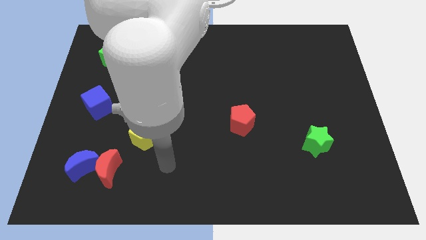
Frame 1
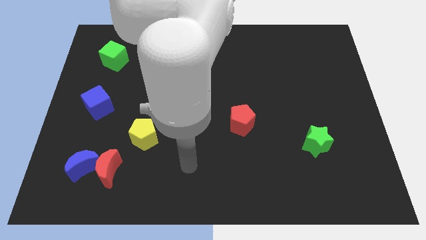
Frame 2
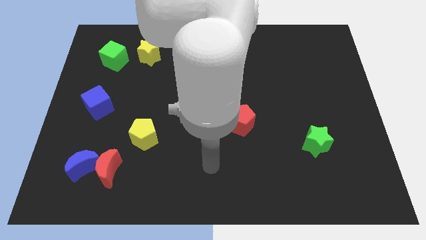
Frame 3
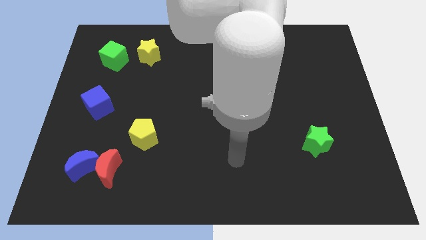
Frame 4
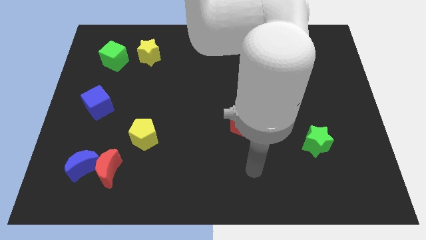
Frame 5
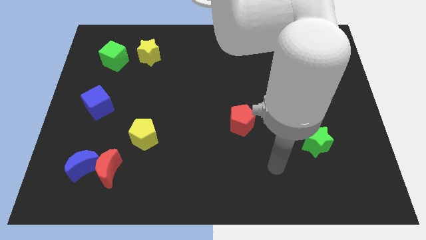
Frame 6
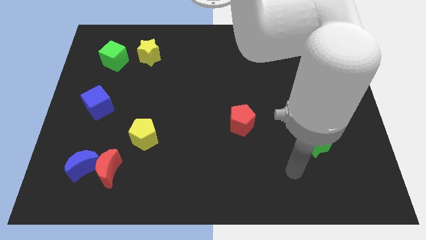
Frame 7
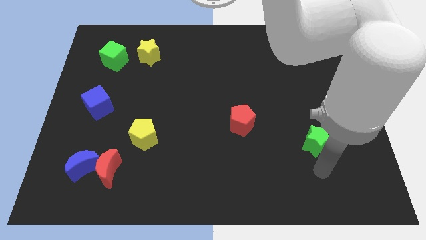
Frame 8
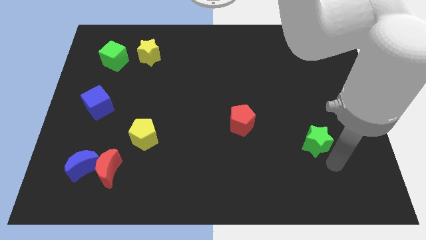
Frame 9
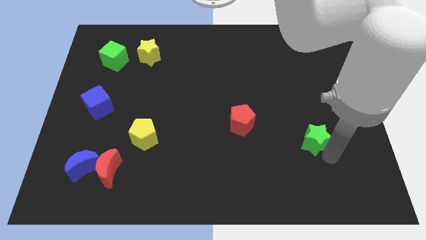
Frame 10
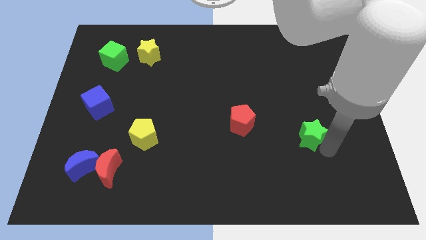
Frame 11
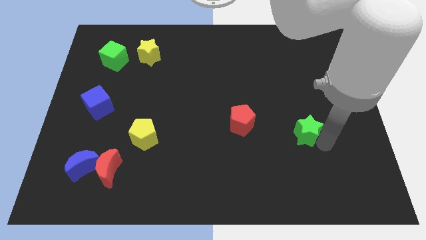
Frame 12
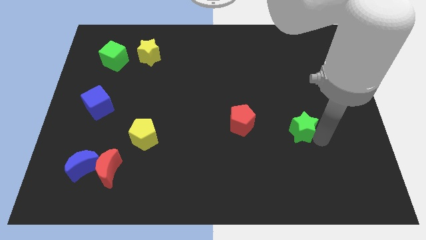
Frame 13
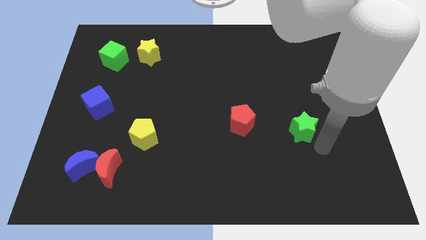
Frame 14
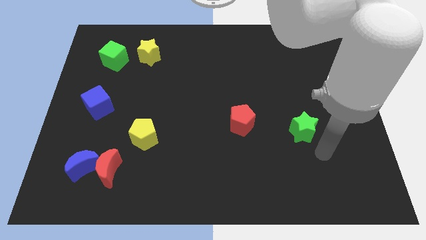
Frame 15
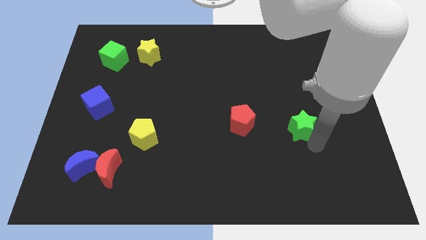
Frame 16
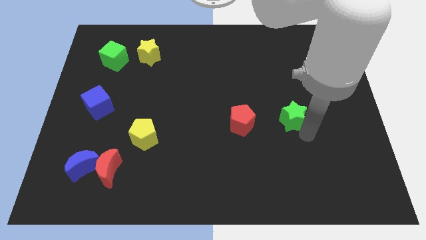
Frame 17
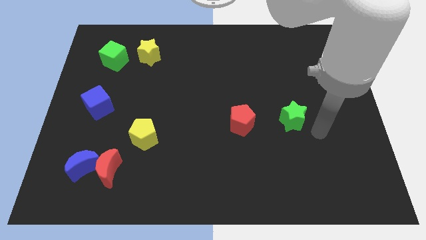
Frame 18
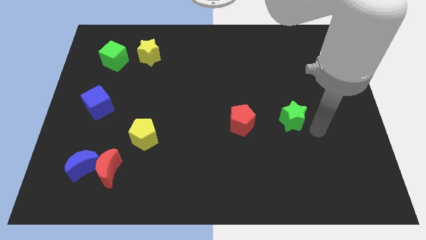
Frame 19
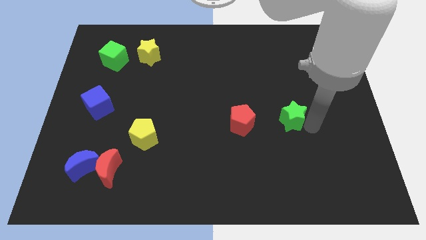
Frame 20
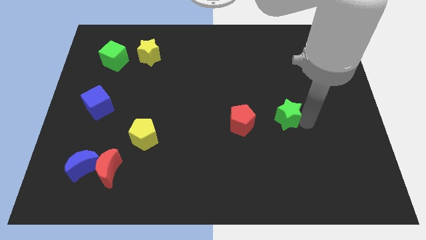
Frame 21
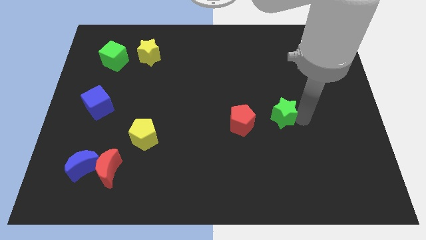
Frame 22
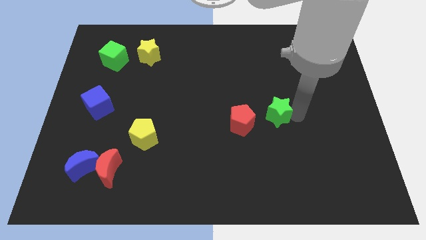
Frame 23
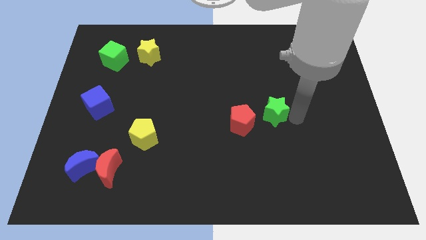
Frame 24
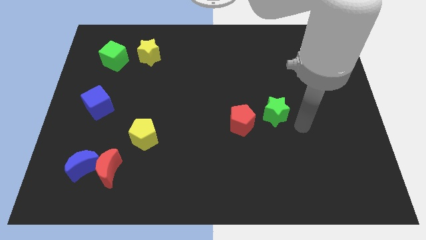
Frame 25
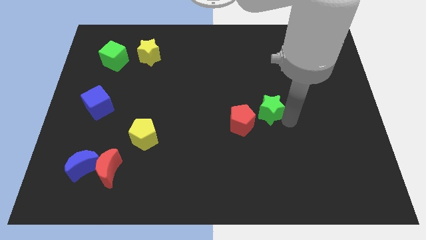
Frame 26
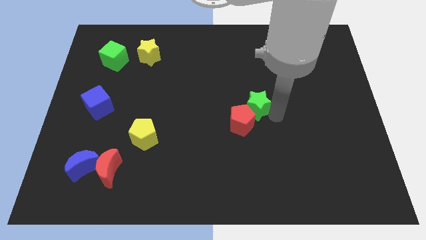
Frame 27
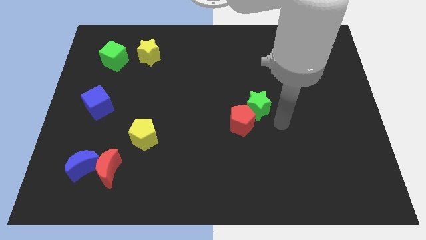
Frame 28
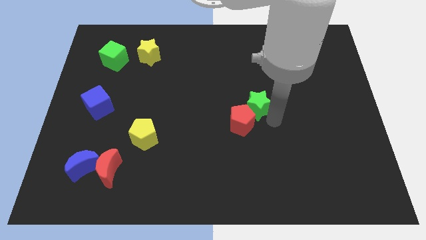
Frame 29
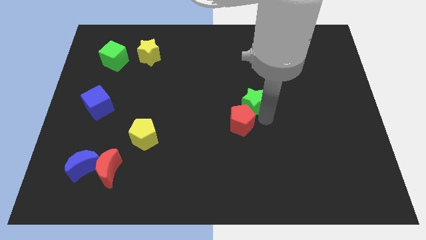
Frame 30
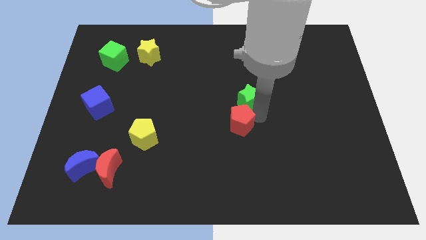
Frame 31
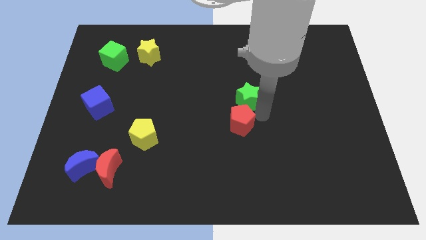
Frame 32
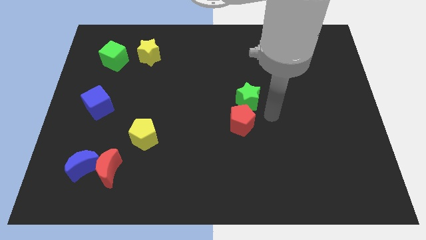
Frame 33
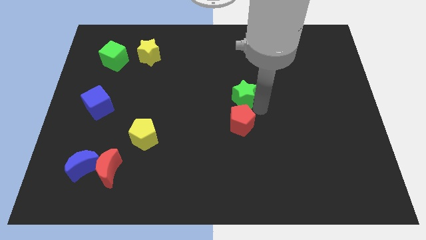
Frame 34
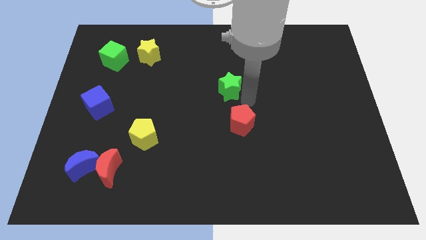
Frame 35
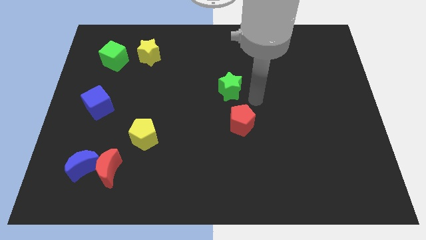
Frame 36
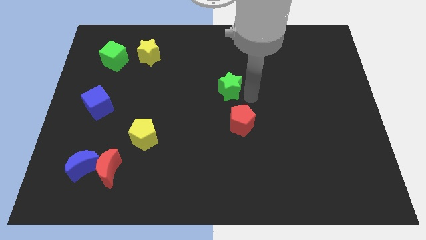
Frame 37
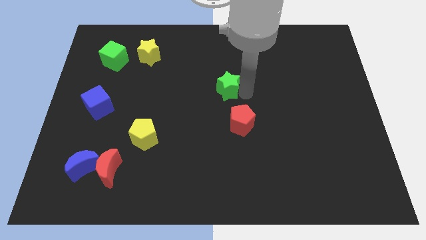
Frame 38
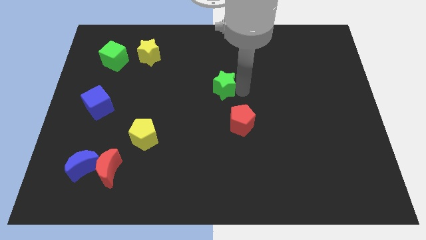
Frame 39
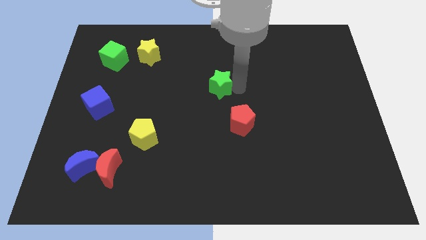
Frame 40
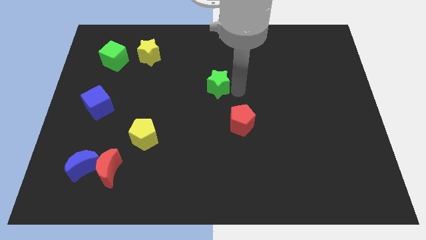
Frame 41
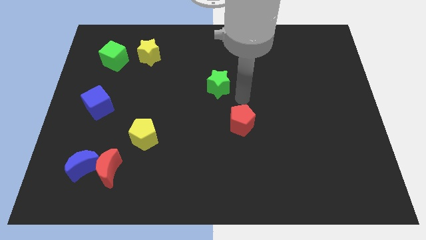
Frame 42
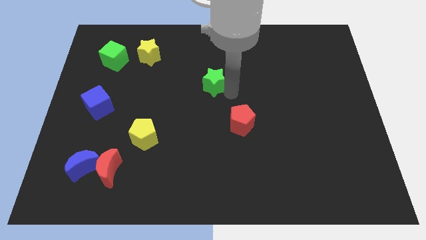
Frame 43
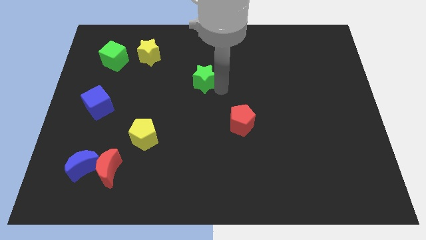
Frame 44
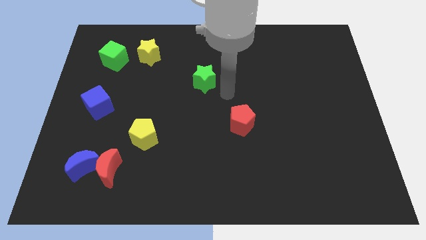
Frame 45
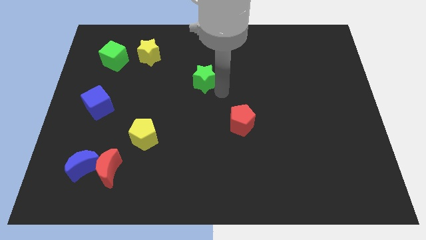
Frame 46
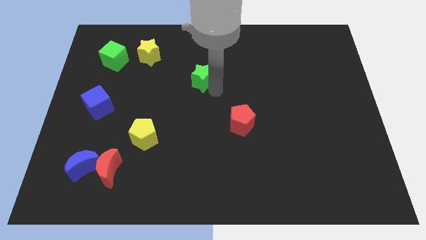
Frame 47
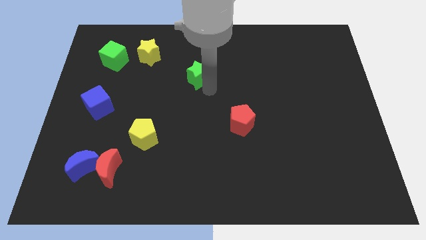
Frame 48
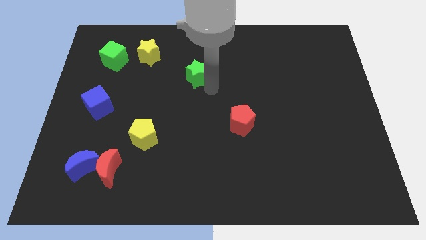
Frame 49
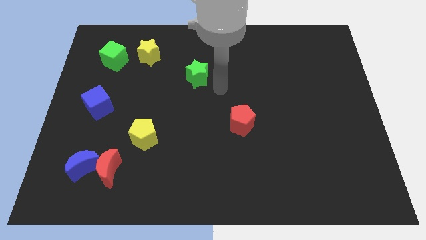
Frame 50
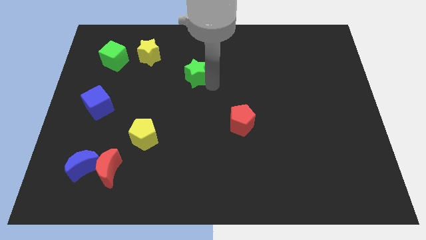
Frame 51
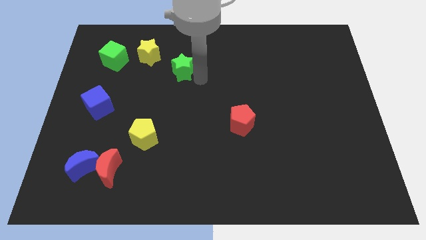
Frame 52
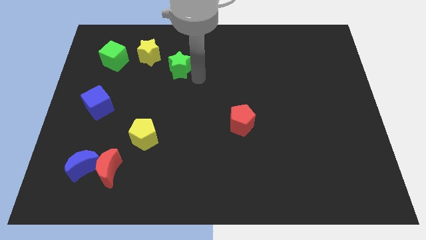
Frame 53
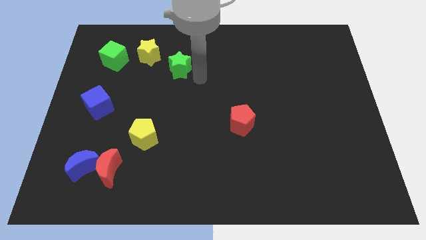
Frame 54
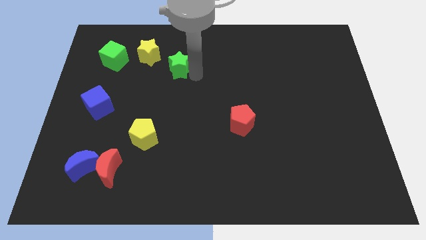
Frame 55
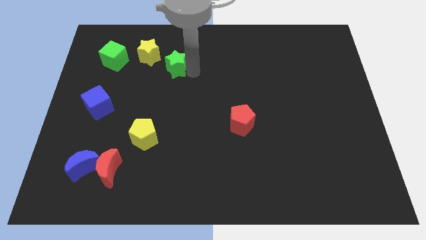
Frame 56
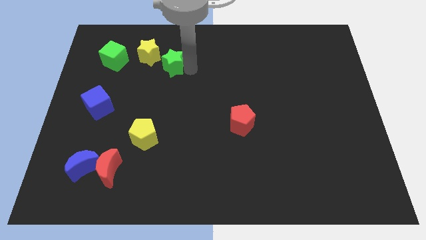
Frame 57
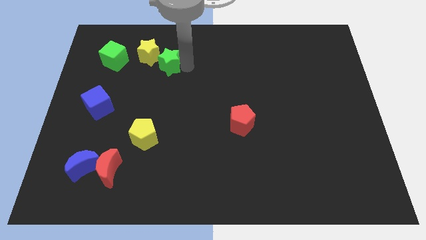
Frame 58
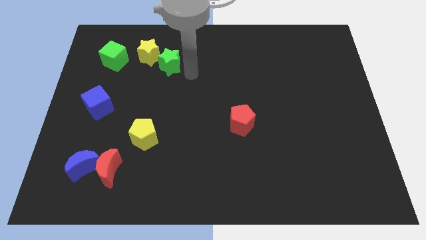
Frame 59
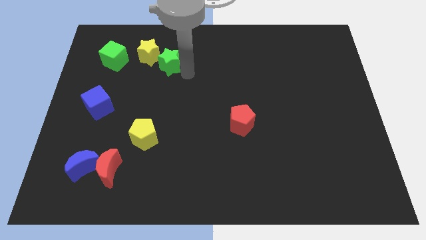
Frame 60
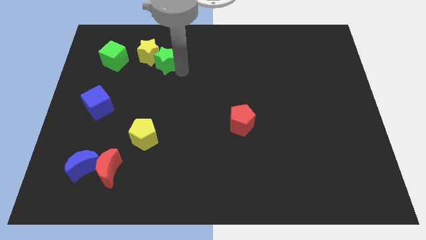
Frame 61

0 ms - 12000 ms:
move the green star next to the yellow star

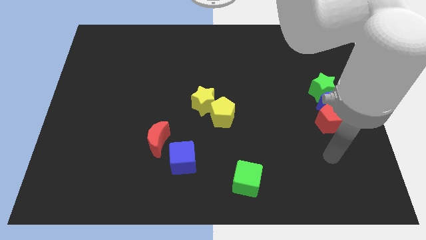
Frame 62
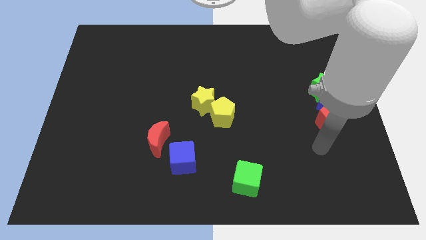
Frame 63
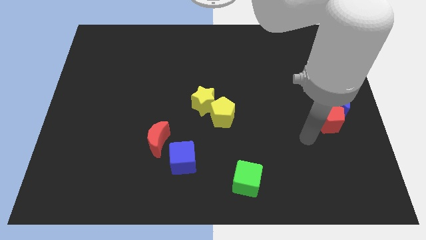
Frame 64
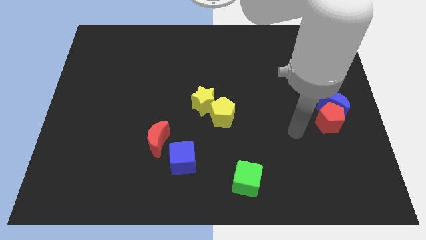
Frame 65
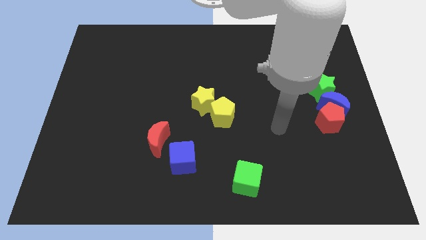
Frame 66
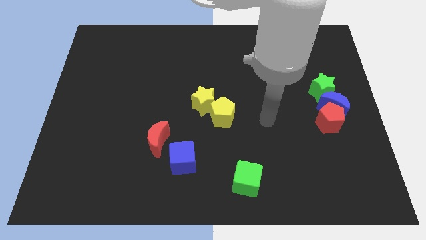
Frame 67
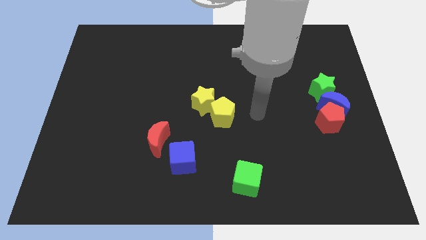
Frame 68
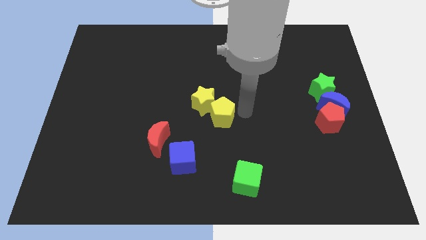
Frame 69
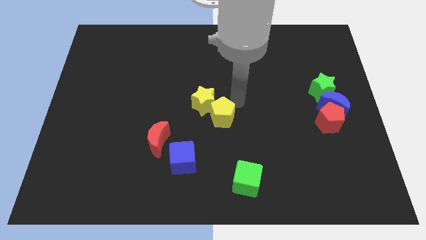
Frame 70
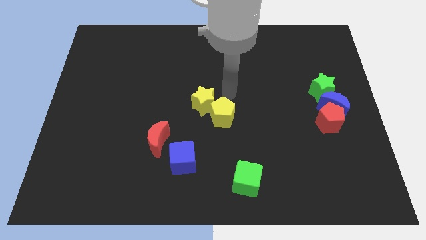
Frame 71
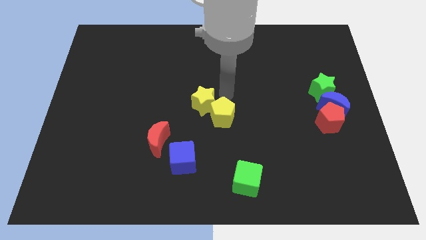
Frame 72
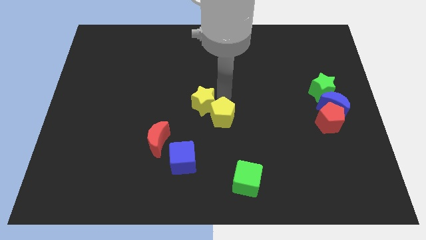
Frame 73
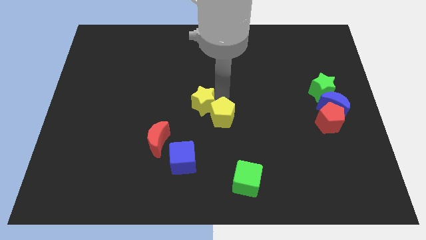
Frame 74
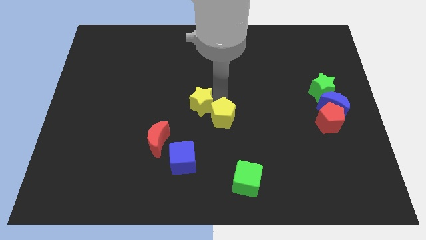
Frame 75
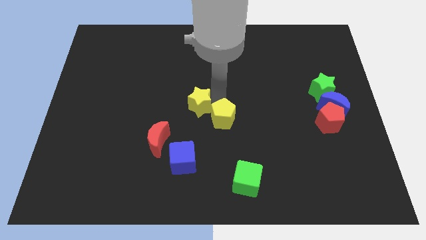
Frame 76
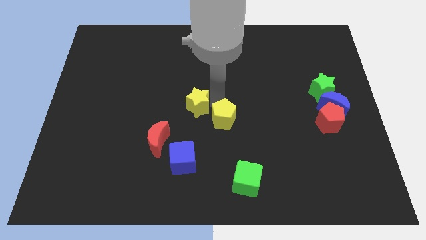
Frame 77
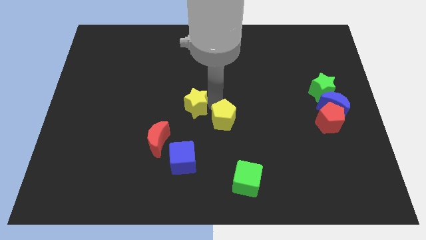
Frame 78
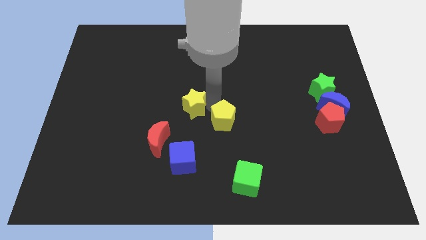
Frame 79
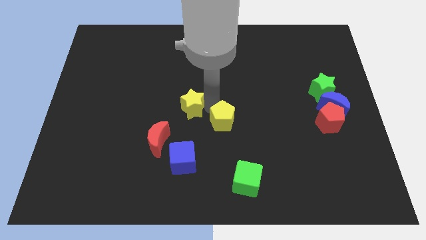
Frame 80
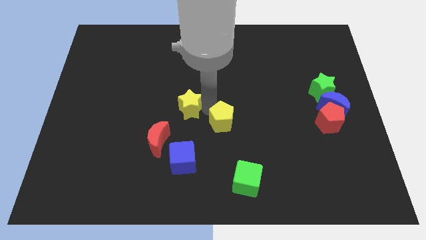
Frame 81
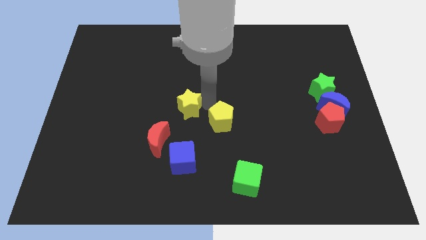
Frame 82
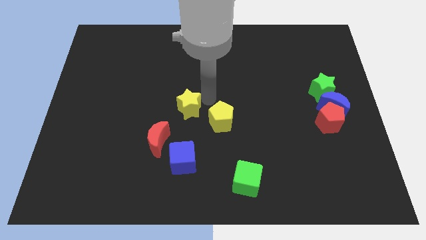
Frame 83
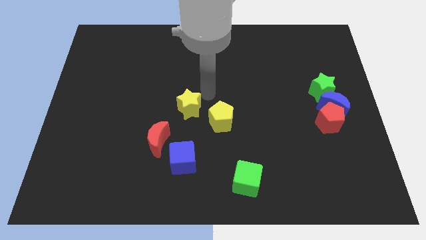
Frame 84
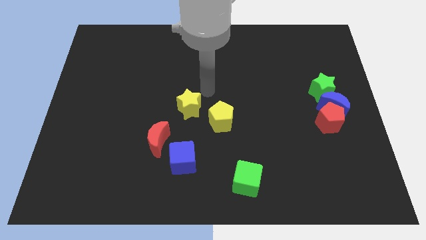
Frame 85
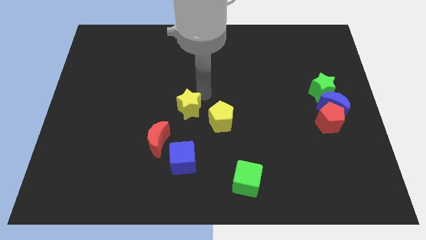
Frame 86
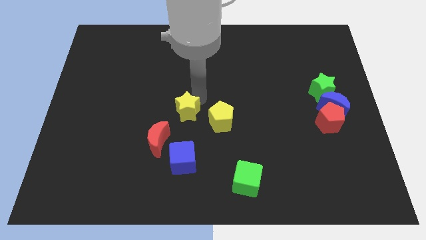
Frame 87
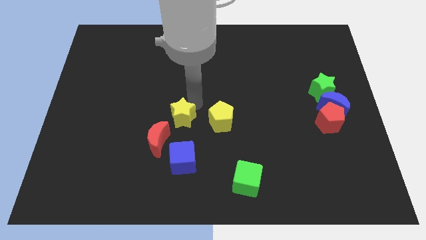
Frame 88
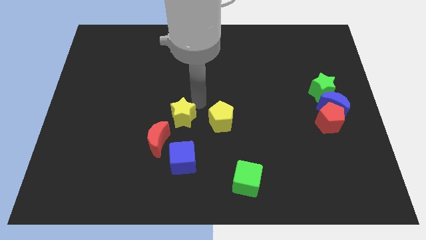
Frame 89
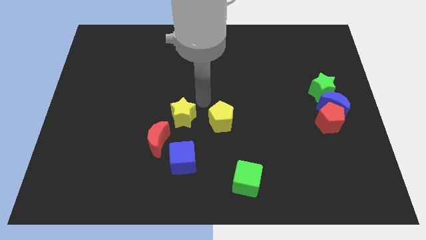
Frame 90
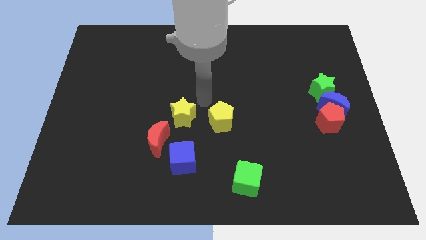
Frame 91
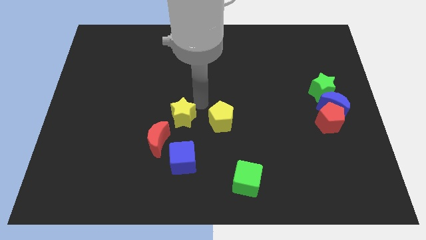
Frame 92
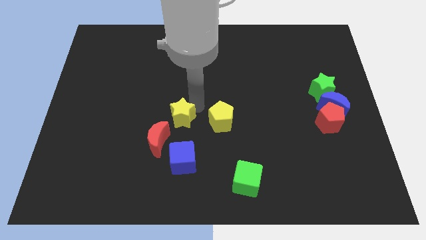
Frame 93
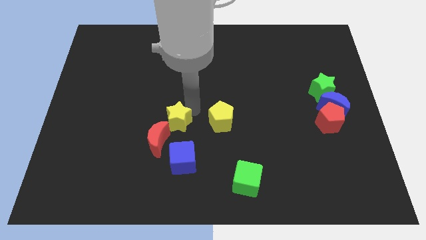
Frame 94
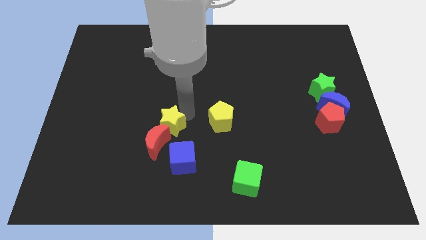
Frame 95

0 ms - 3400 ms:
push the yellow star close to the red moon
